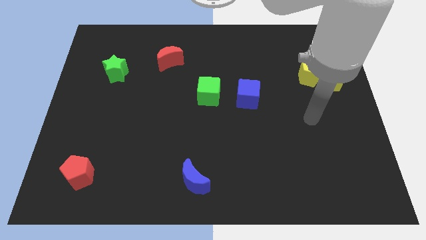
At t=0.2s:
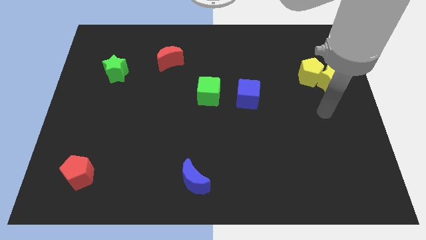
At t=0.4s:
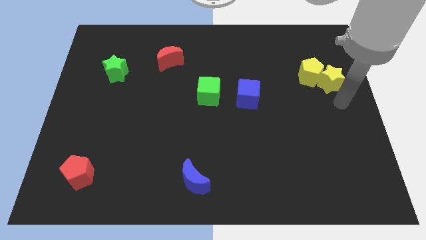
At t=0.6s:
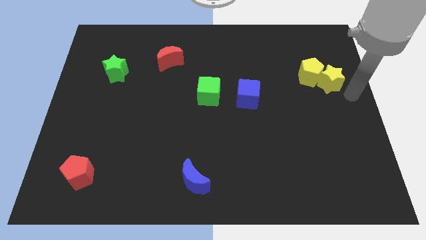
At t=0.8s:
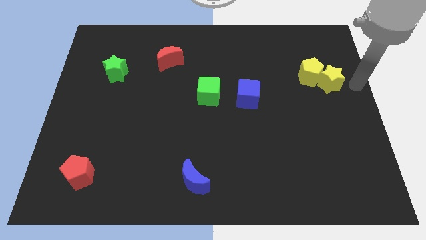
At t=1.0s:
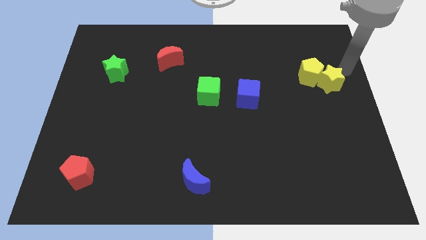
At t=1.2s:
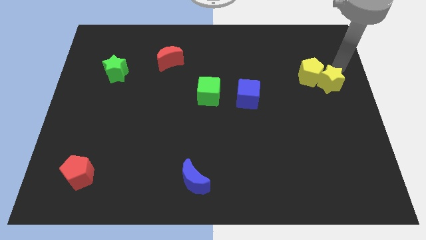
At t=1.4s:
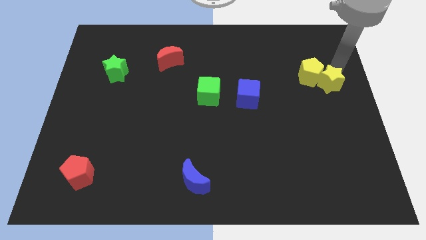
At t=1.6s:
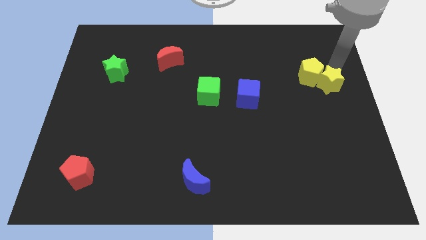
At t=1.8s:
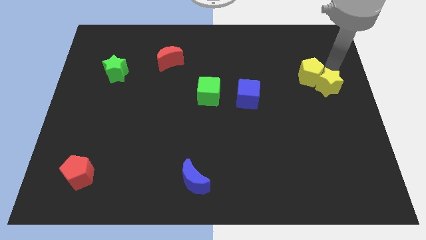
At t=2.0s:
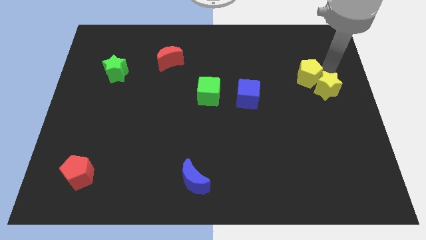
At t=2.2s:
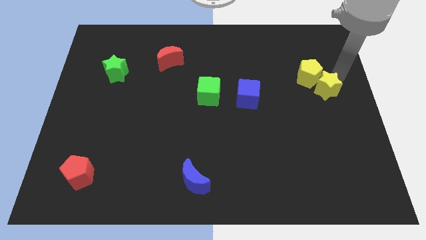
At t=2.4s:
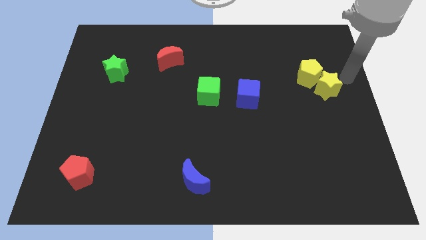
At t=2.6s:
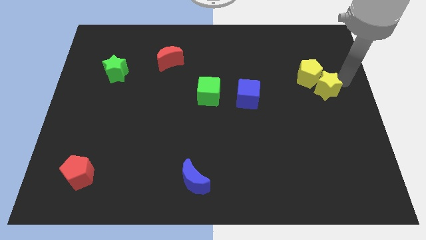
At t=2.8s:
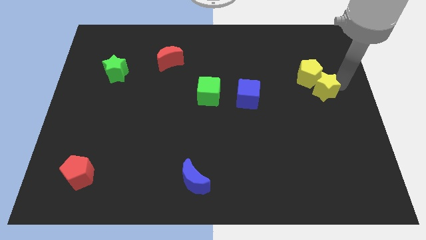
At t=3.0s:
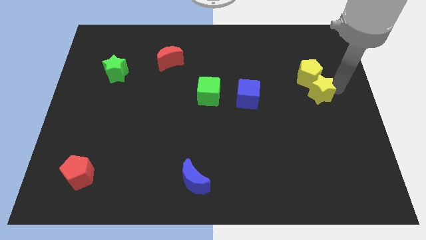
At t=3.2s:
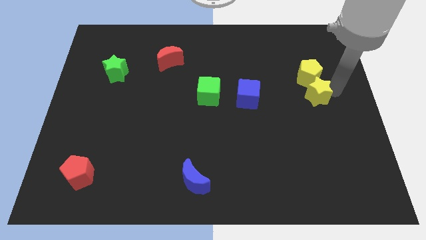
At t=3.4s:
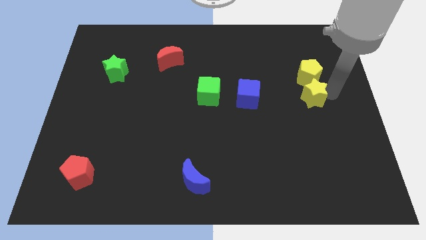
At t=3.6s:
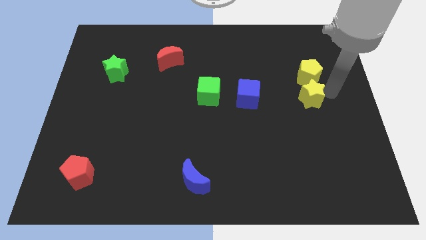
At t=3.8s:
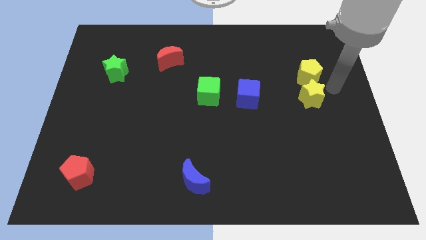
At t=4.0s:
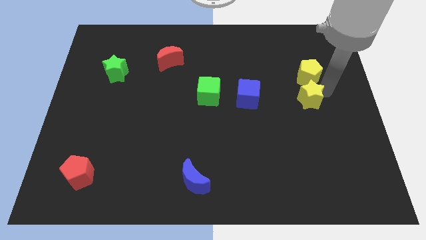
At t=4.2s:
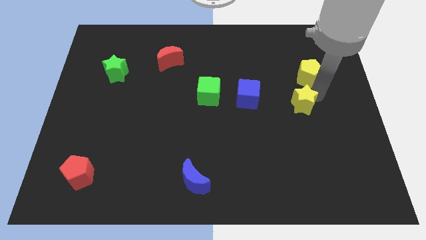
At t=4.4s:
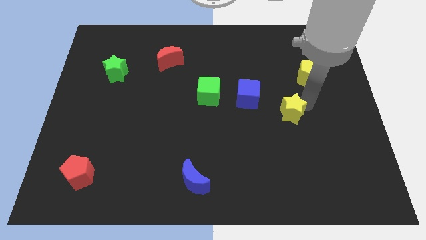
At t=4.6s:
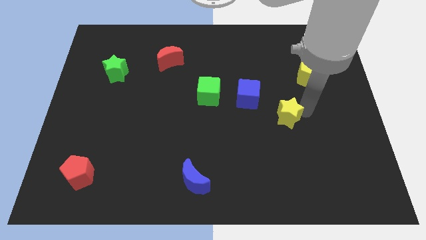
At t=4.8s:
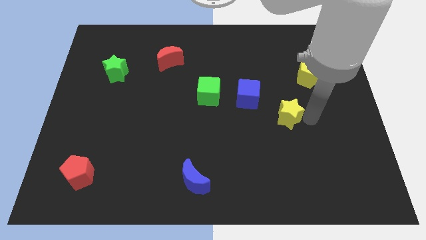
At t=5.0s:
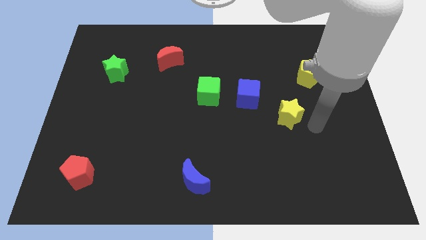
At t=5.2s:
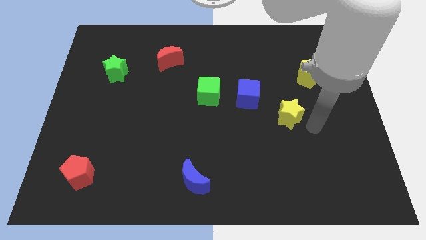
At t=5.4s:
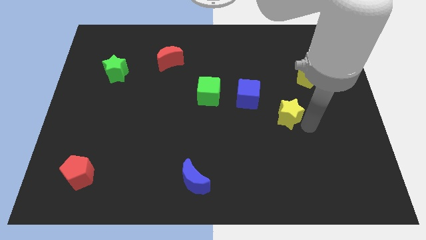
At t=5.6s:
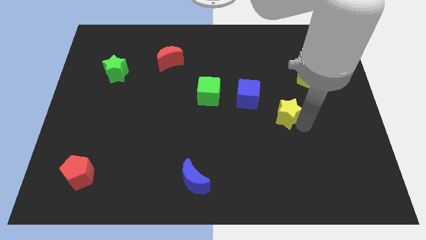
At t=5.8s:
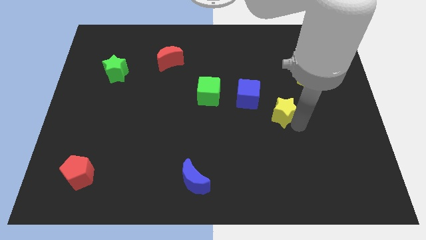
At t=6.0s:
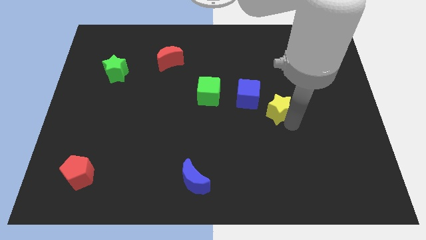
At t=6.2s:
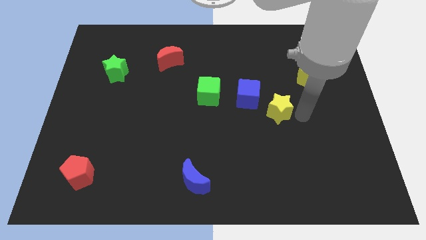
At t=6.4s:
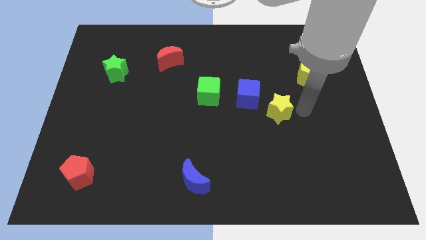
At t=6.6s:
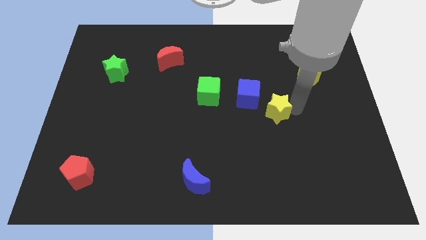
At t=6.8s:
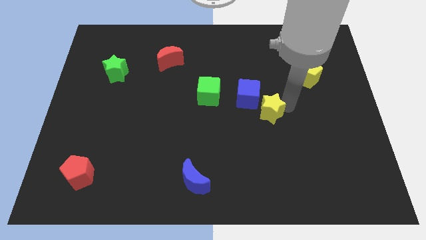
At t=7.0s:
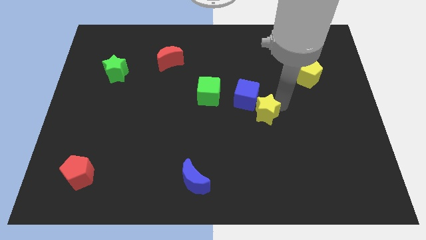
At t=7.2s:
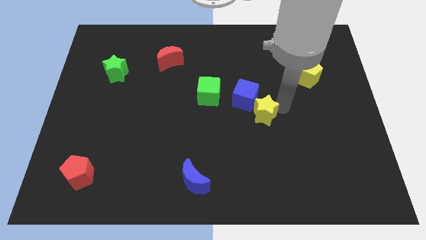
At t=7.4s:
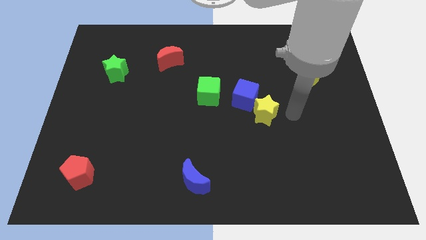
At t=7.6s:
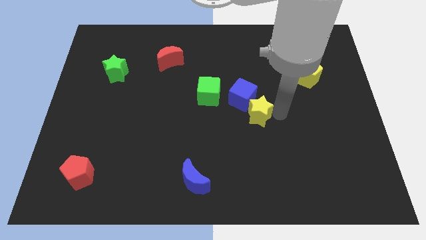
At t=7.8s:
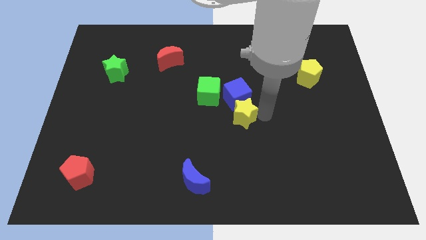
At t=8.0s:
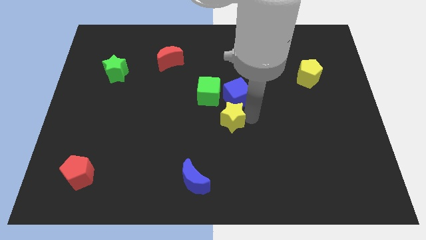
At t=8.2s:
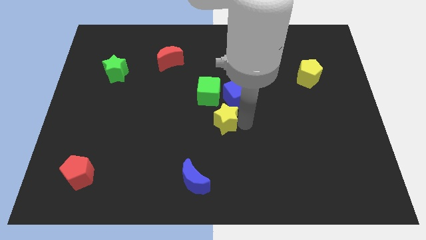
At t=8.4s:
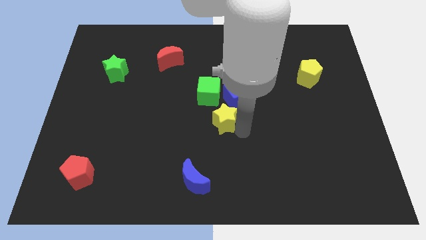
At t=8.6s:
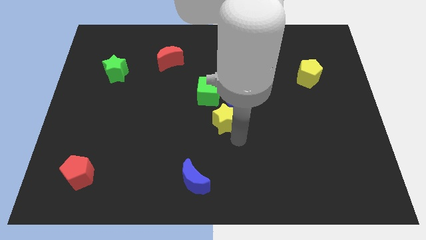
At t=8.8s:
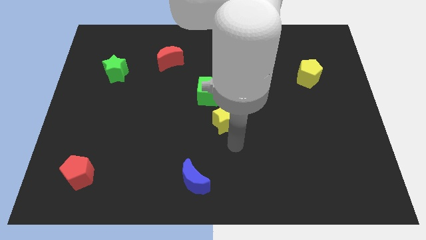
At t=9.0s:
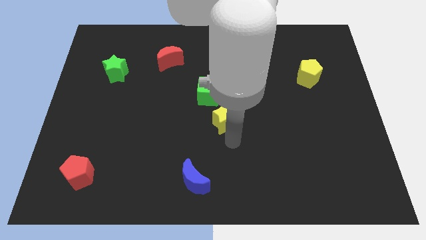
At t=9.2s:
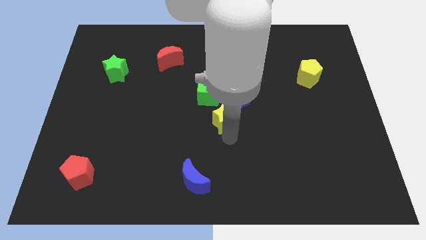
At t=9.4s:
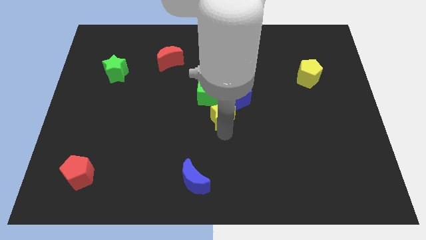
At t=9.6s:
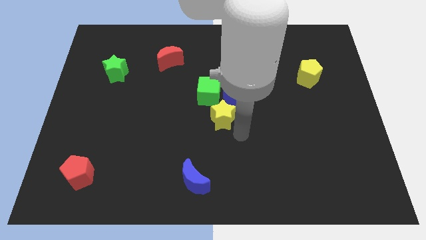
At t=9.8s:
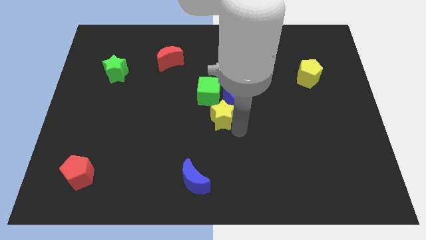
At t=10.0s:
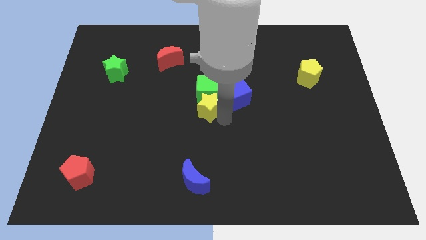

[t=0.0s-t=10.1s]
push the yellow star left of the blue cube

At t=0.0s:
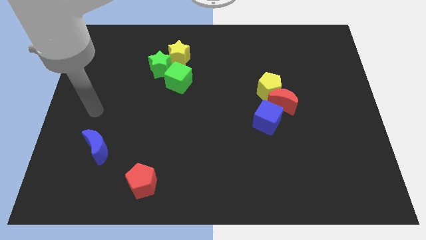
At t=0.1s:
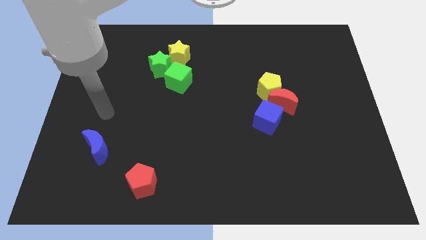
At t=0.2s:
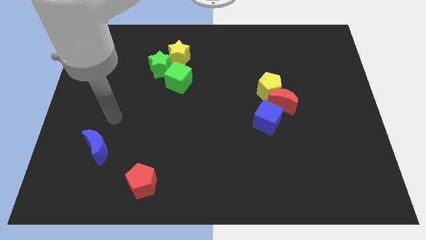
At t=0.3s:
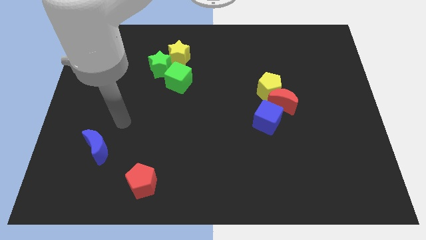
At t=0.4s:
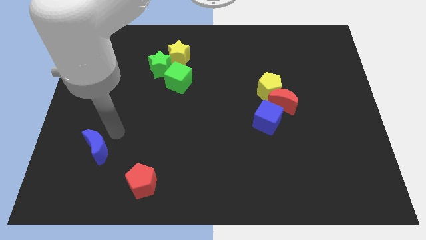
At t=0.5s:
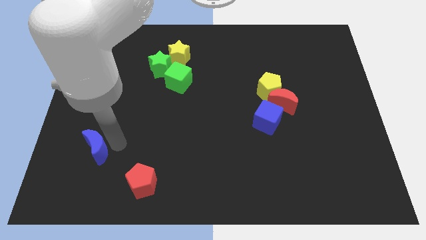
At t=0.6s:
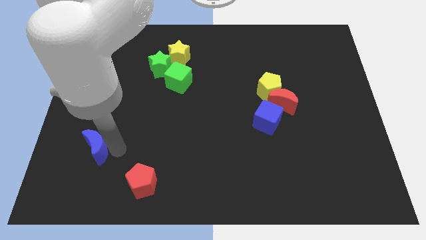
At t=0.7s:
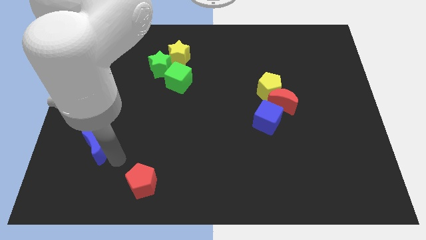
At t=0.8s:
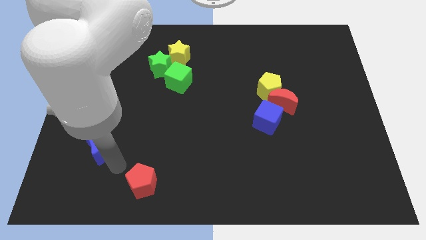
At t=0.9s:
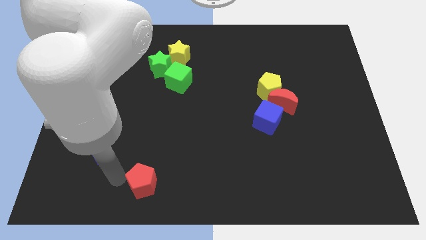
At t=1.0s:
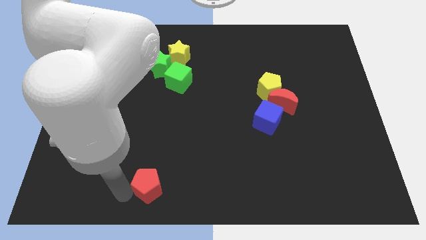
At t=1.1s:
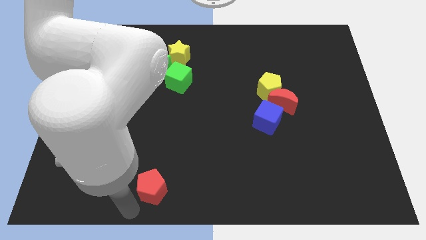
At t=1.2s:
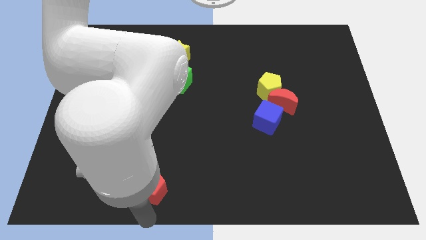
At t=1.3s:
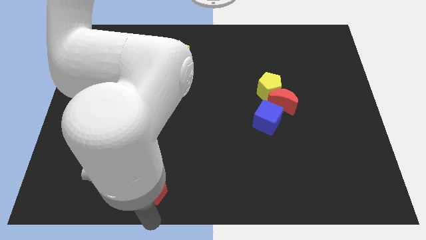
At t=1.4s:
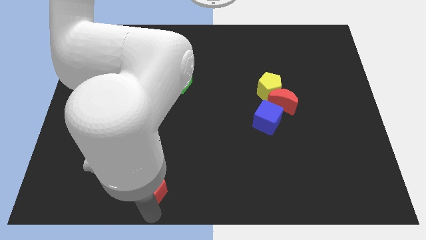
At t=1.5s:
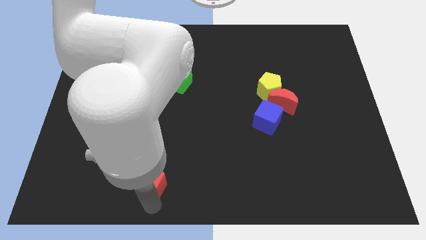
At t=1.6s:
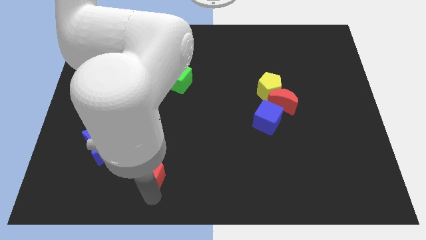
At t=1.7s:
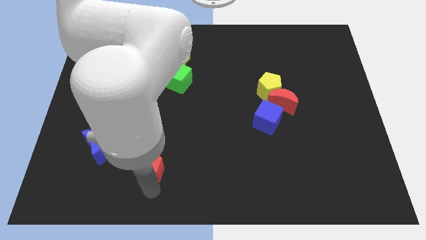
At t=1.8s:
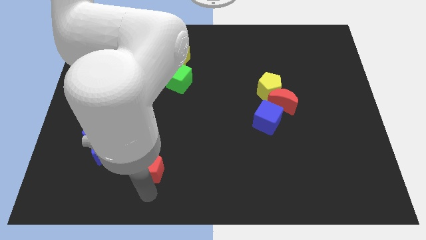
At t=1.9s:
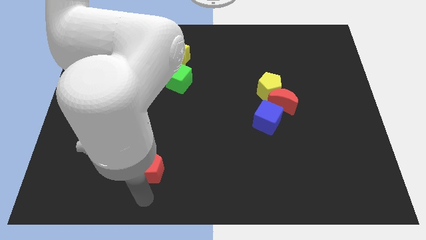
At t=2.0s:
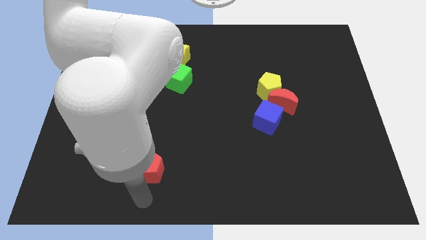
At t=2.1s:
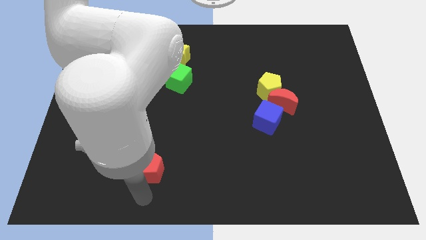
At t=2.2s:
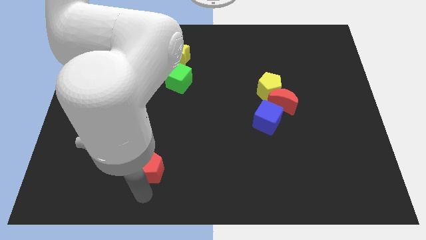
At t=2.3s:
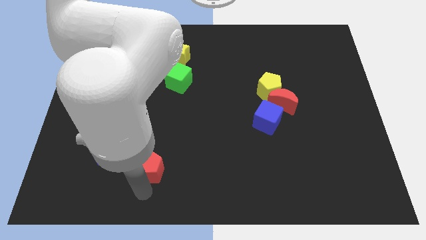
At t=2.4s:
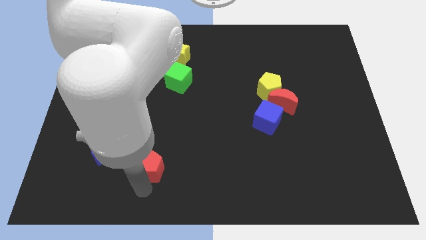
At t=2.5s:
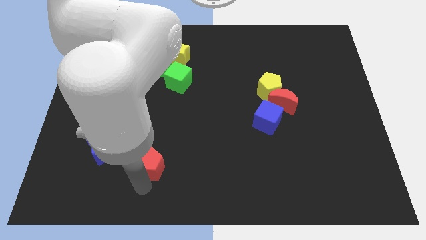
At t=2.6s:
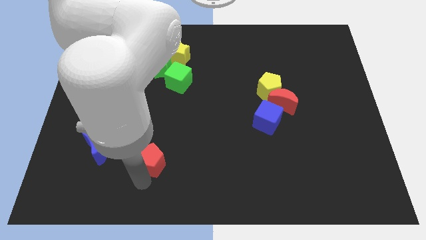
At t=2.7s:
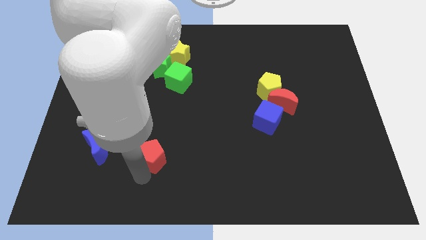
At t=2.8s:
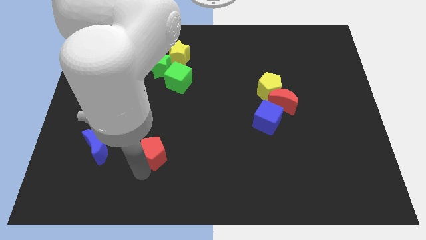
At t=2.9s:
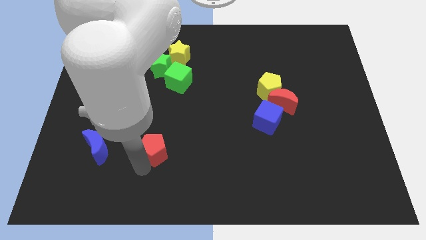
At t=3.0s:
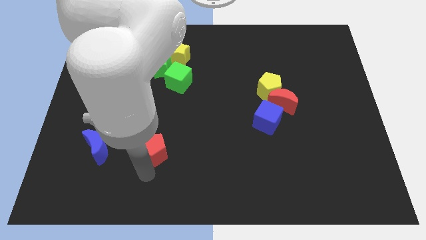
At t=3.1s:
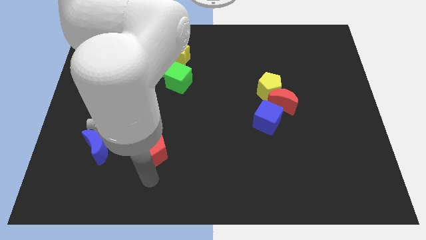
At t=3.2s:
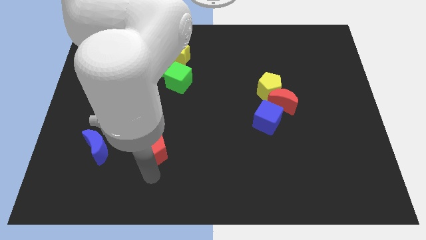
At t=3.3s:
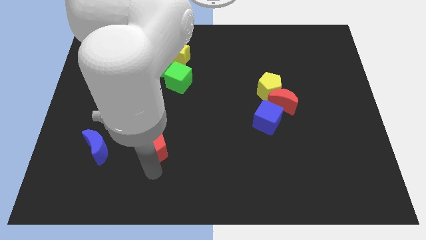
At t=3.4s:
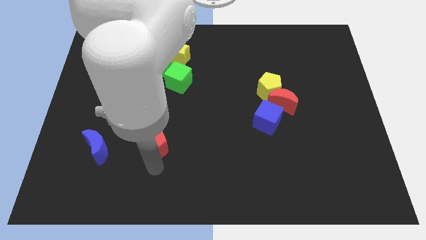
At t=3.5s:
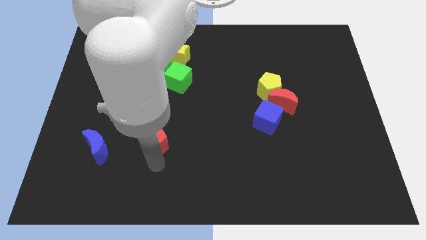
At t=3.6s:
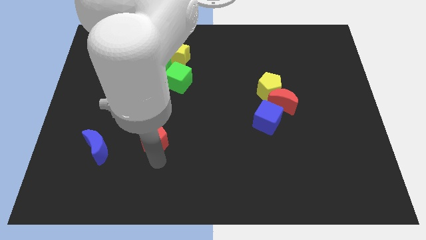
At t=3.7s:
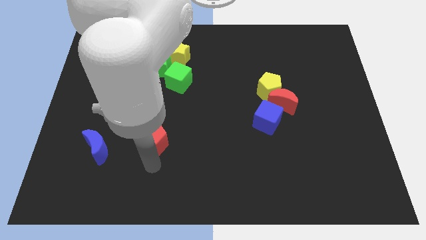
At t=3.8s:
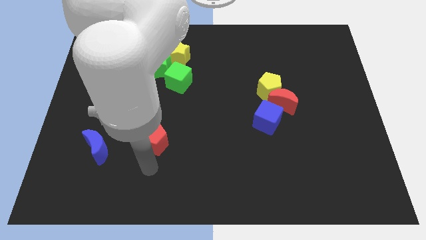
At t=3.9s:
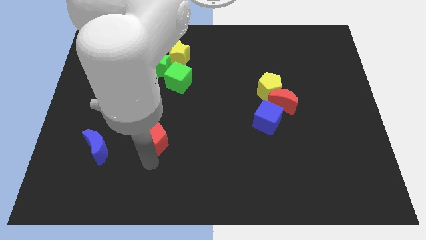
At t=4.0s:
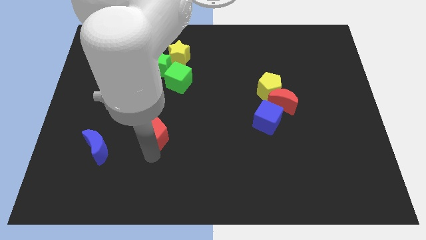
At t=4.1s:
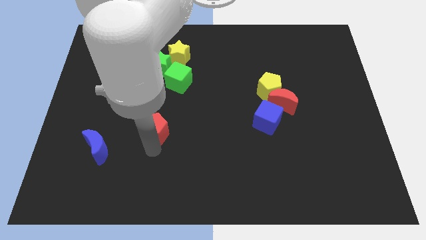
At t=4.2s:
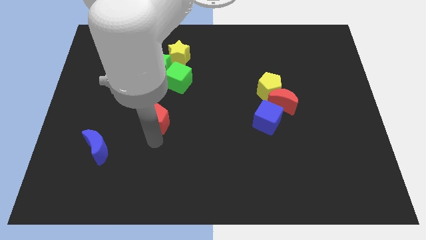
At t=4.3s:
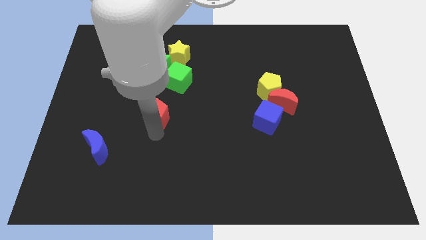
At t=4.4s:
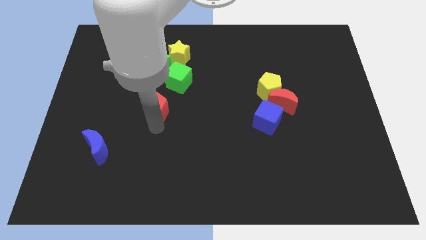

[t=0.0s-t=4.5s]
slide the red pentagon diagonally down and to the left of the green cube
